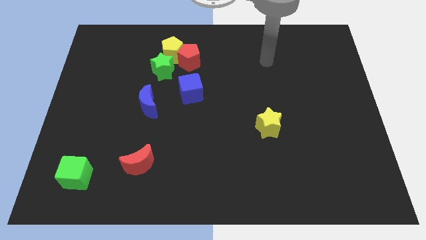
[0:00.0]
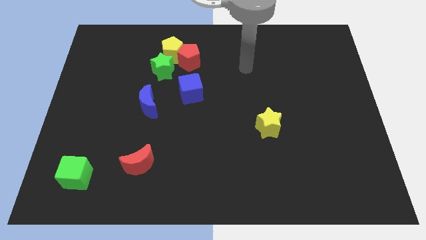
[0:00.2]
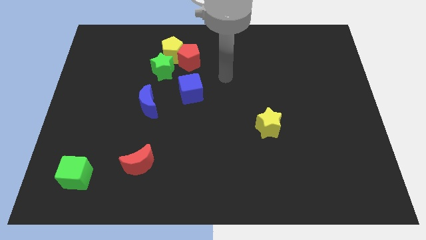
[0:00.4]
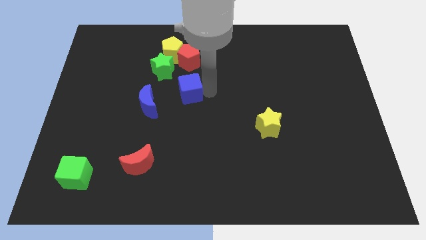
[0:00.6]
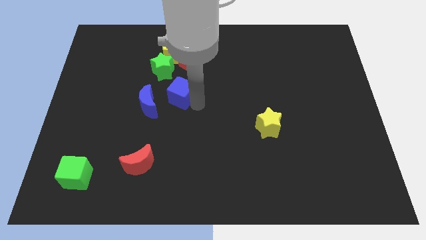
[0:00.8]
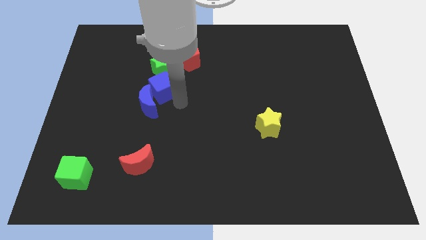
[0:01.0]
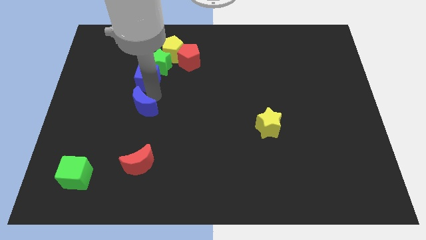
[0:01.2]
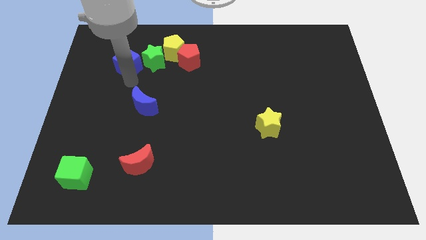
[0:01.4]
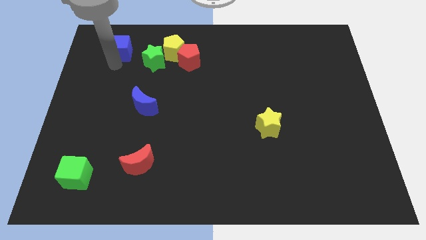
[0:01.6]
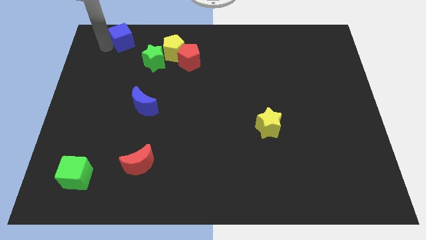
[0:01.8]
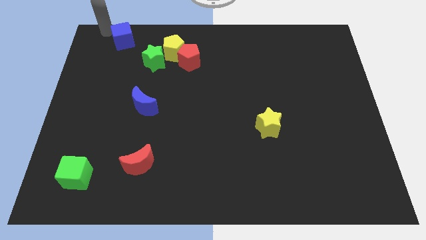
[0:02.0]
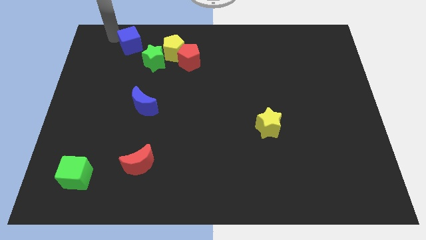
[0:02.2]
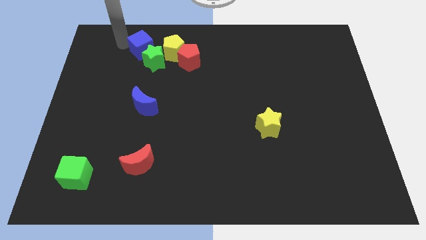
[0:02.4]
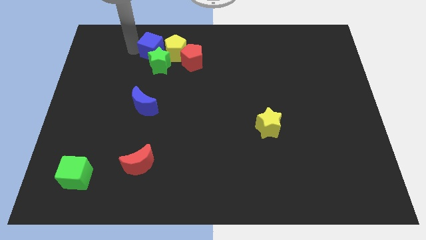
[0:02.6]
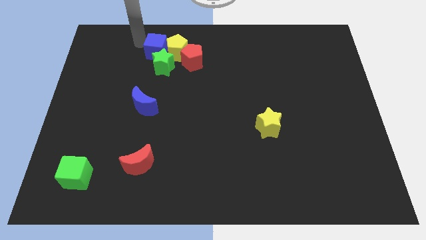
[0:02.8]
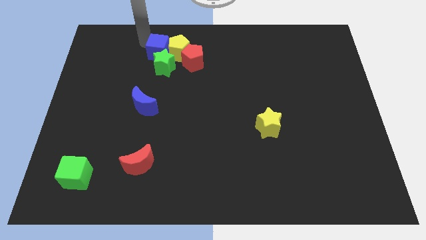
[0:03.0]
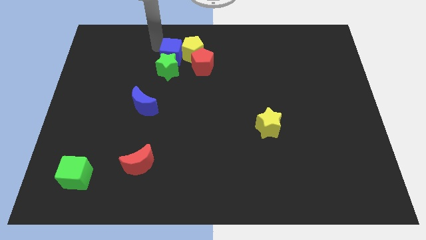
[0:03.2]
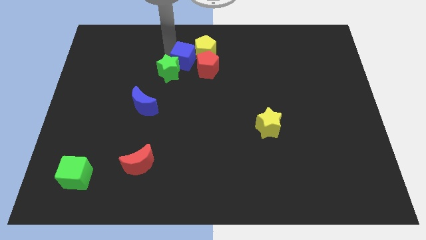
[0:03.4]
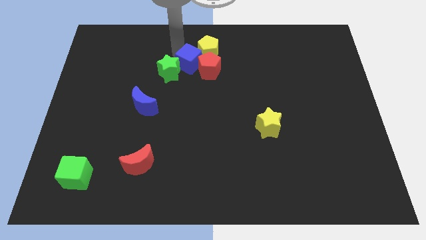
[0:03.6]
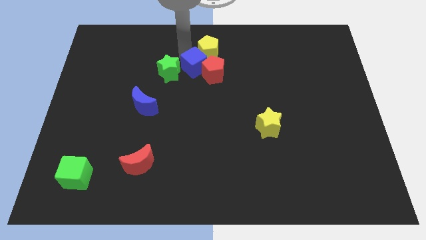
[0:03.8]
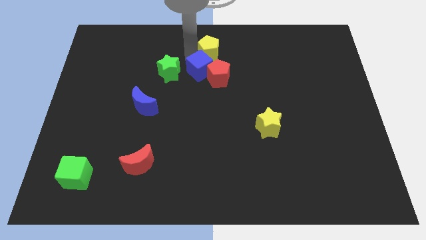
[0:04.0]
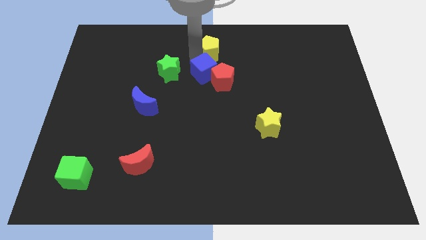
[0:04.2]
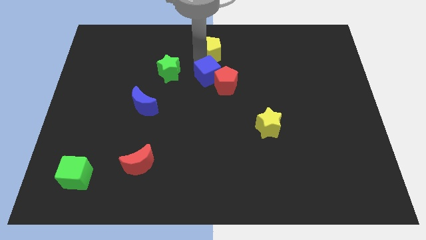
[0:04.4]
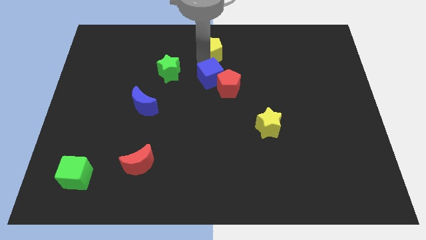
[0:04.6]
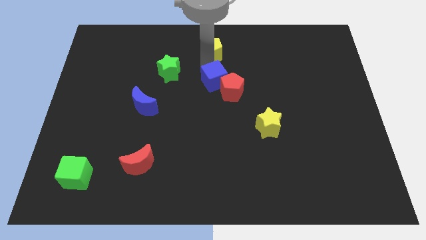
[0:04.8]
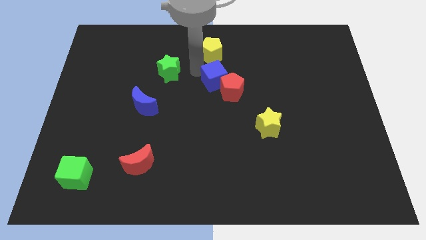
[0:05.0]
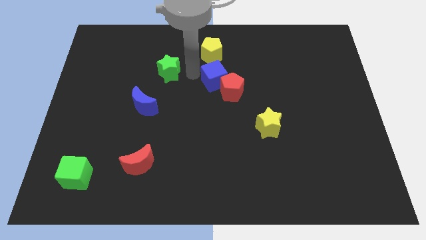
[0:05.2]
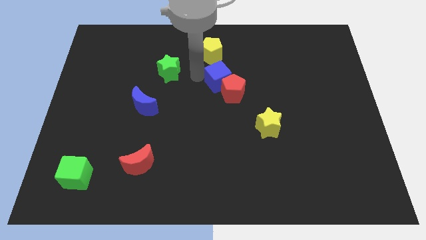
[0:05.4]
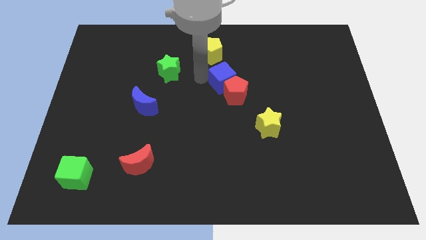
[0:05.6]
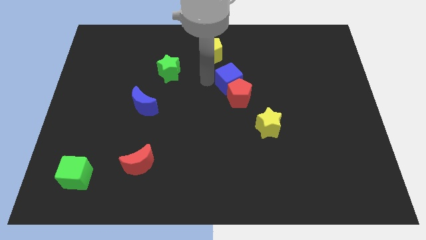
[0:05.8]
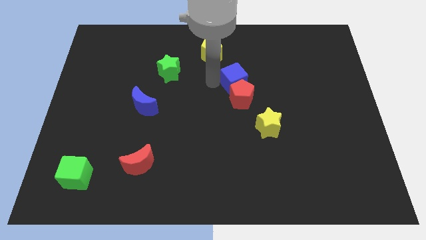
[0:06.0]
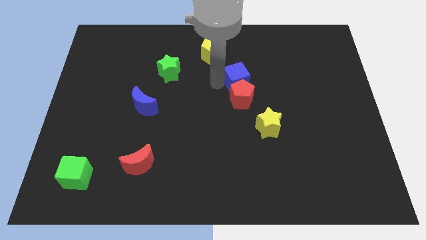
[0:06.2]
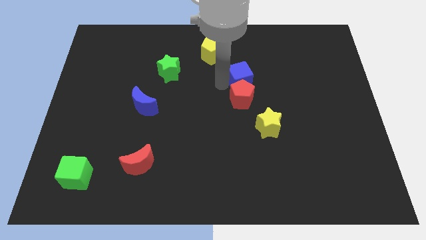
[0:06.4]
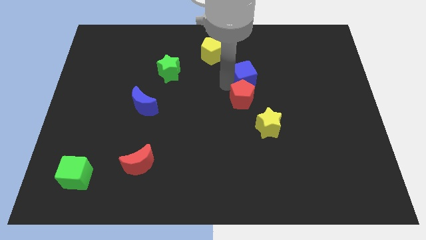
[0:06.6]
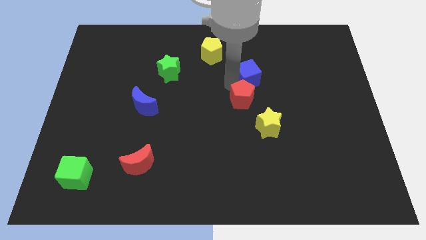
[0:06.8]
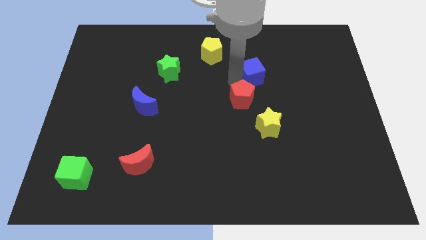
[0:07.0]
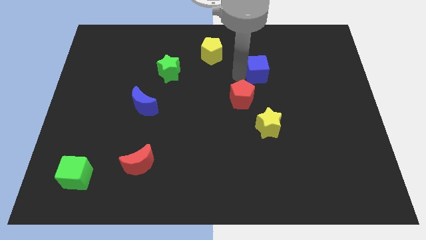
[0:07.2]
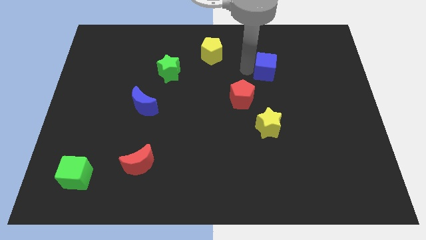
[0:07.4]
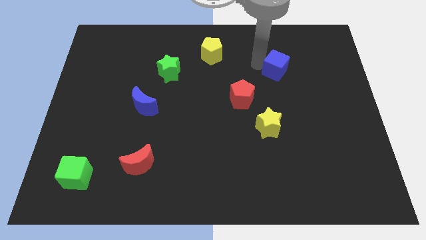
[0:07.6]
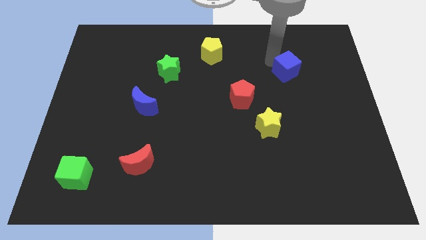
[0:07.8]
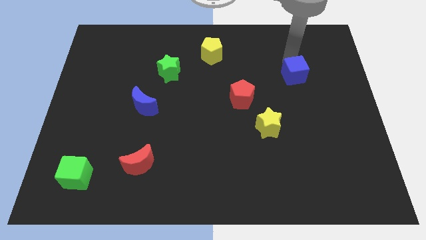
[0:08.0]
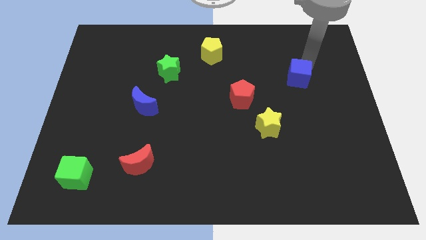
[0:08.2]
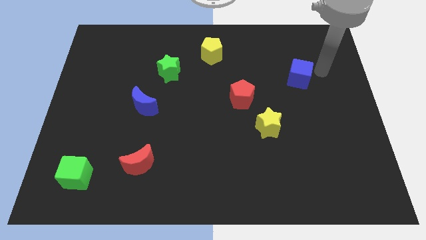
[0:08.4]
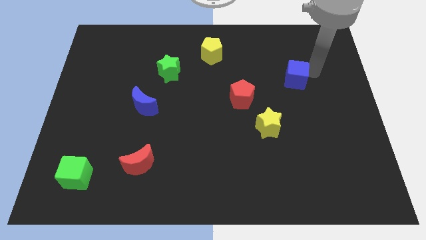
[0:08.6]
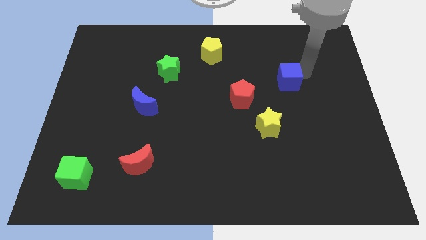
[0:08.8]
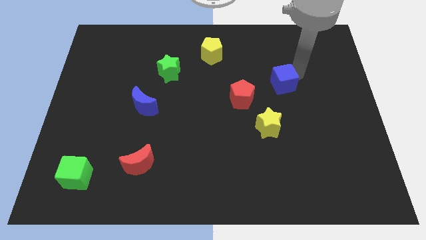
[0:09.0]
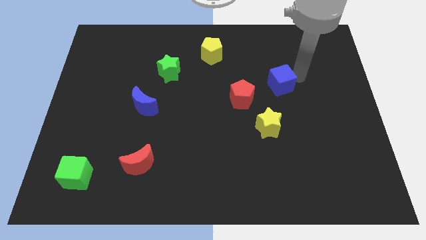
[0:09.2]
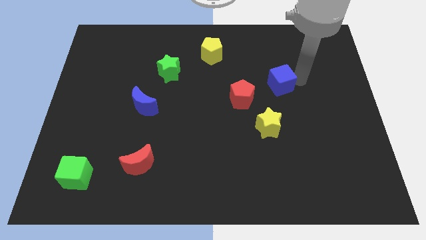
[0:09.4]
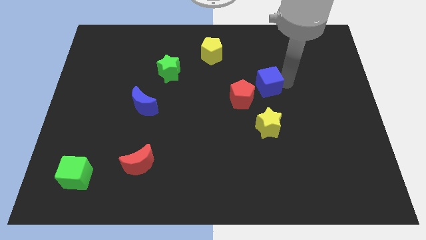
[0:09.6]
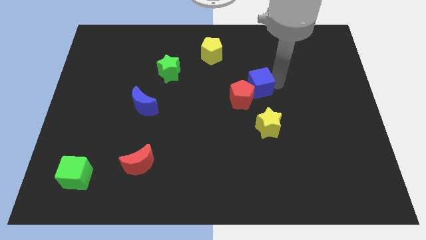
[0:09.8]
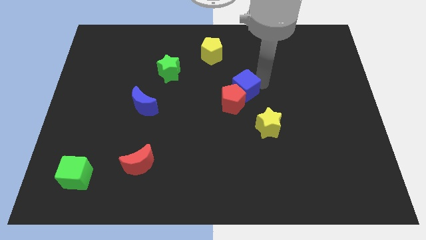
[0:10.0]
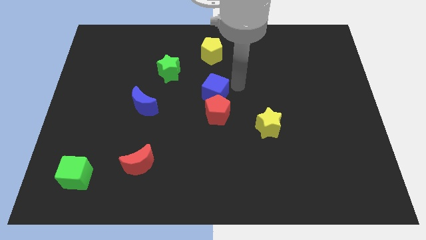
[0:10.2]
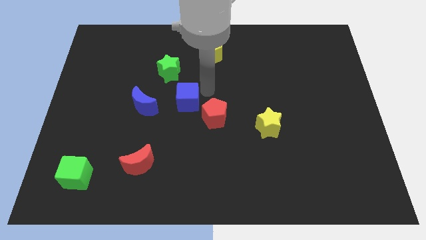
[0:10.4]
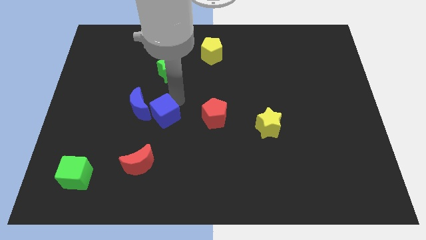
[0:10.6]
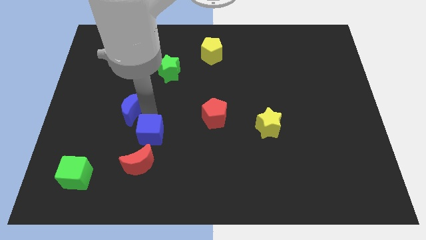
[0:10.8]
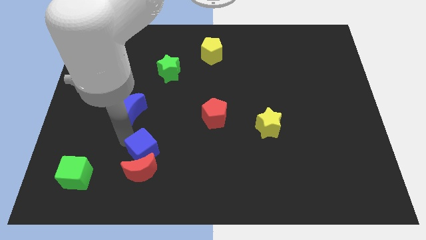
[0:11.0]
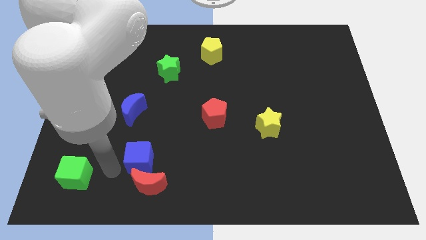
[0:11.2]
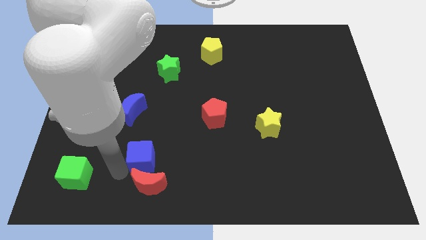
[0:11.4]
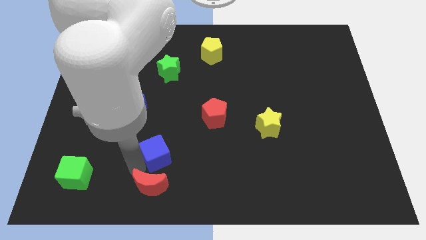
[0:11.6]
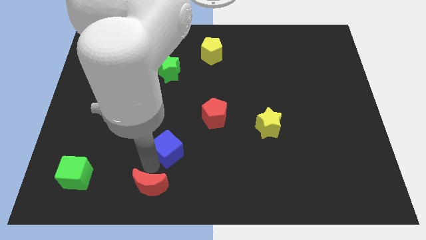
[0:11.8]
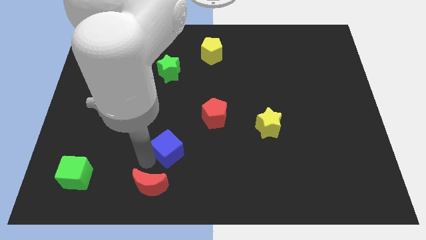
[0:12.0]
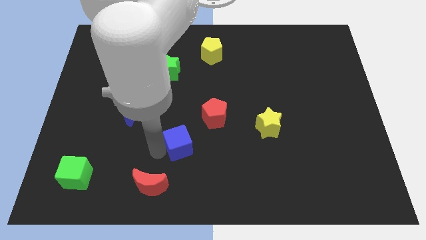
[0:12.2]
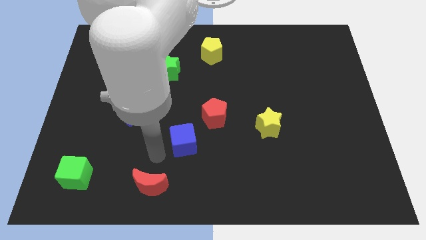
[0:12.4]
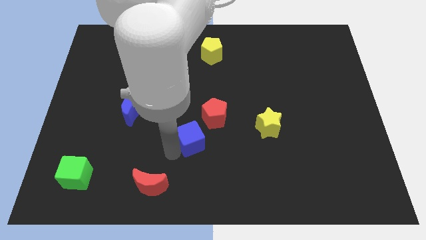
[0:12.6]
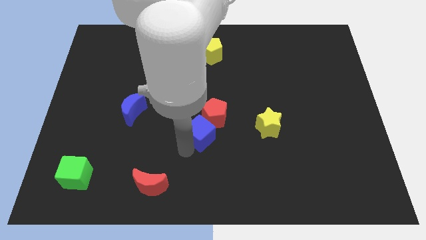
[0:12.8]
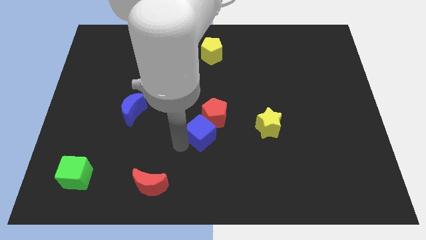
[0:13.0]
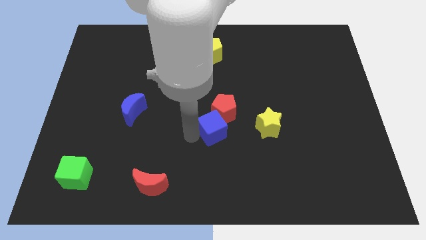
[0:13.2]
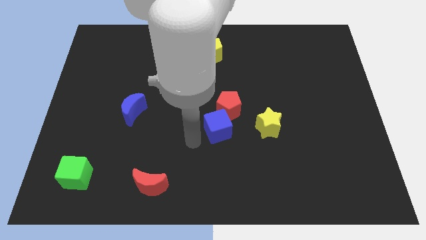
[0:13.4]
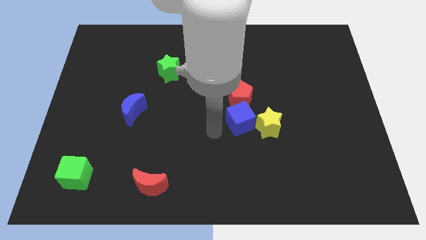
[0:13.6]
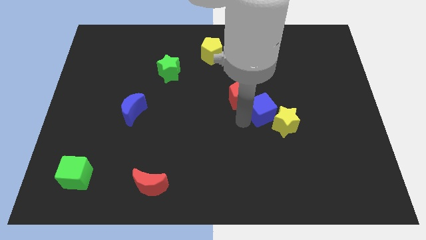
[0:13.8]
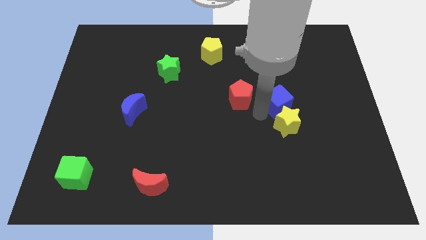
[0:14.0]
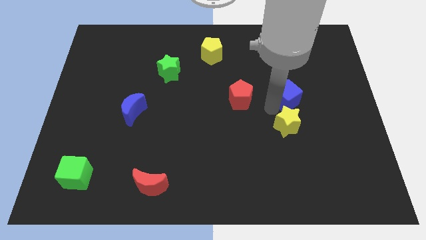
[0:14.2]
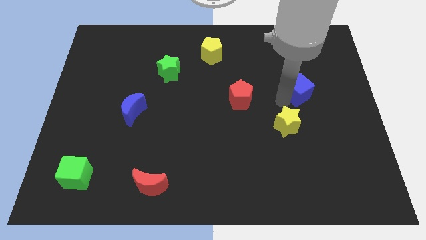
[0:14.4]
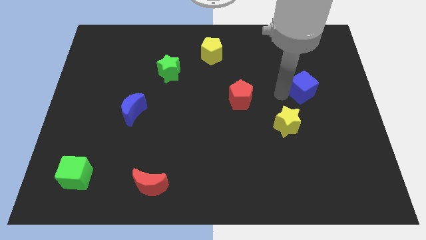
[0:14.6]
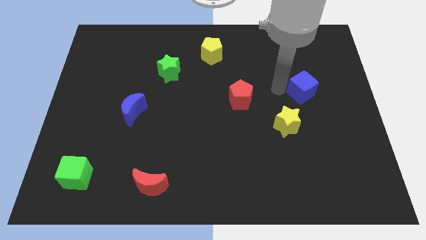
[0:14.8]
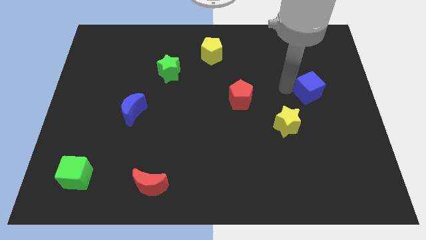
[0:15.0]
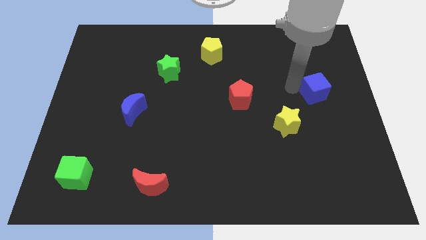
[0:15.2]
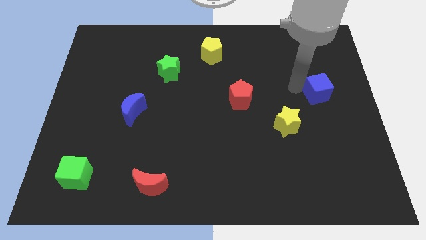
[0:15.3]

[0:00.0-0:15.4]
put the blue cube to the right side
